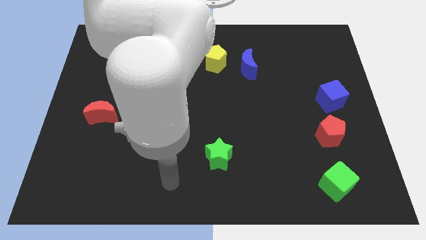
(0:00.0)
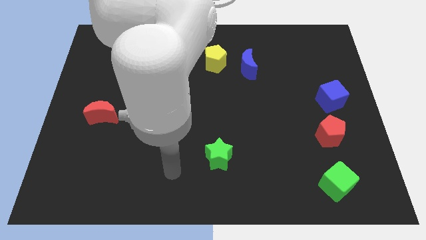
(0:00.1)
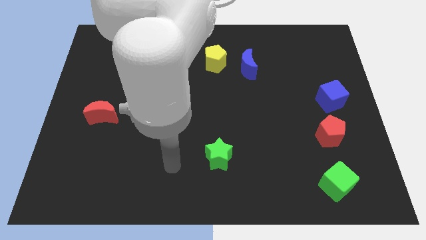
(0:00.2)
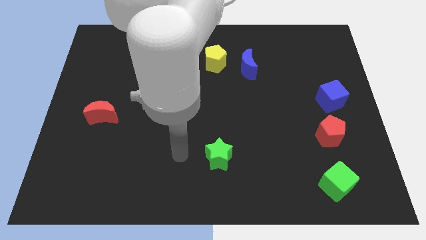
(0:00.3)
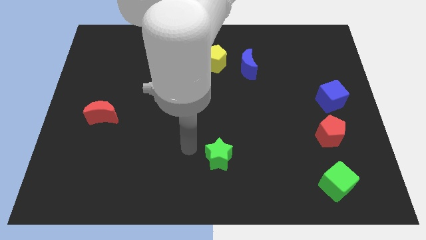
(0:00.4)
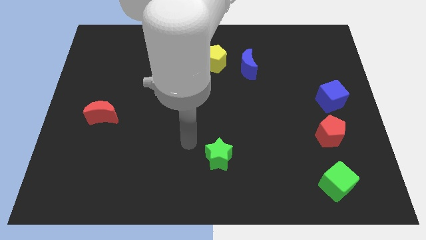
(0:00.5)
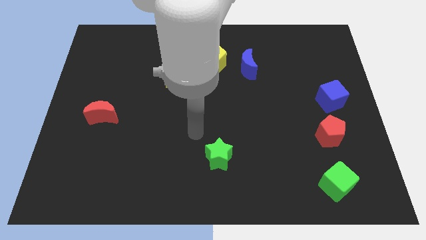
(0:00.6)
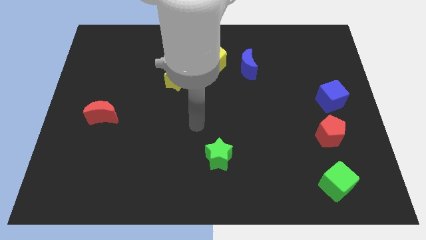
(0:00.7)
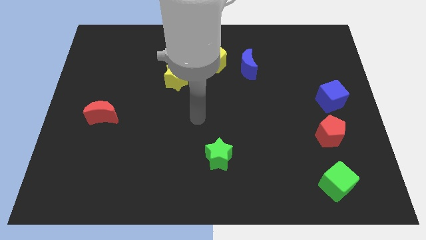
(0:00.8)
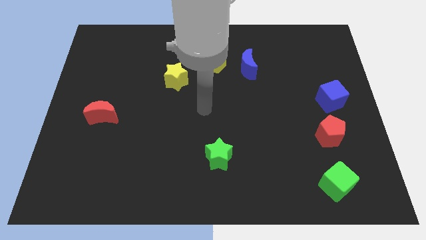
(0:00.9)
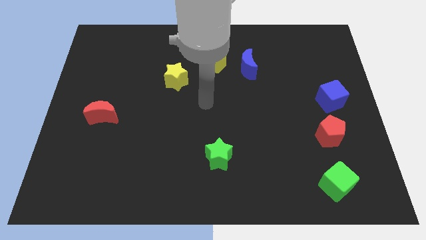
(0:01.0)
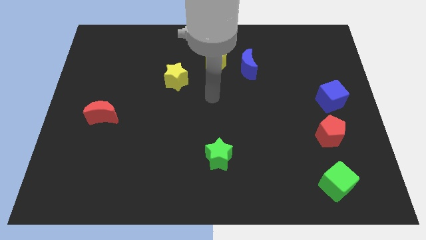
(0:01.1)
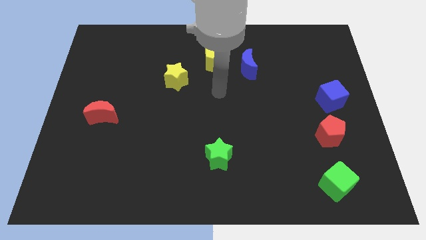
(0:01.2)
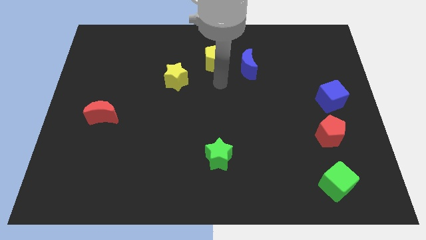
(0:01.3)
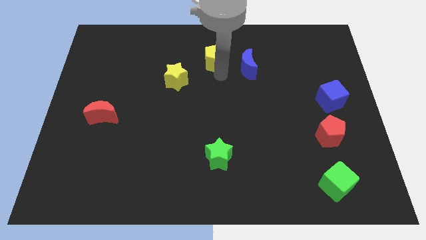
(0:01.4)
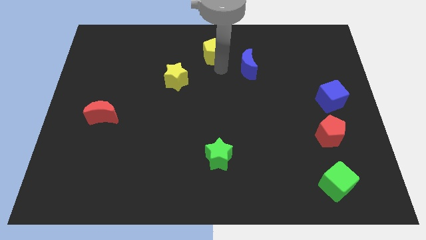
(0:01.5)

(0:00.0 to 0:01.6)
pull the blue moon apart from the yellow pentagon

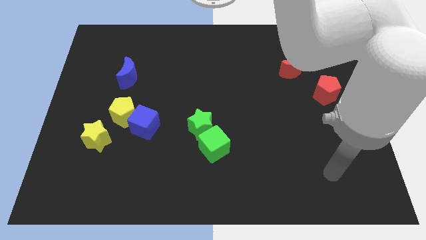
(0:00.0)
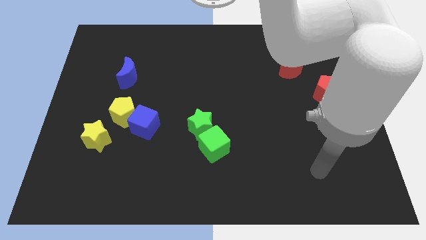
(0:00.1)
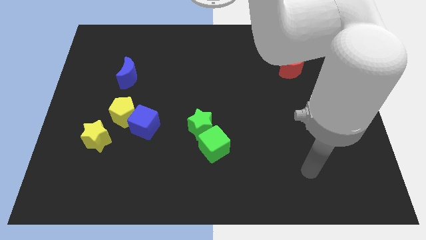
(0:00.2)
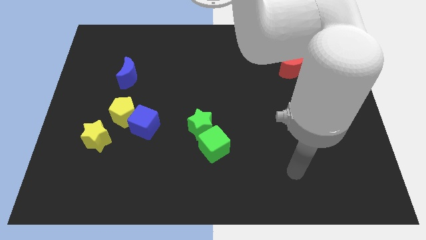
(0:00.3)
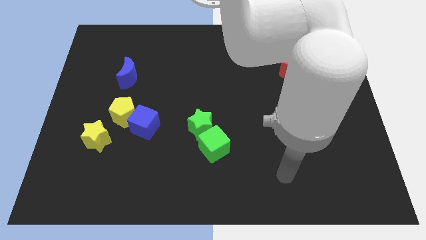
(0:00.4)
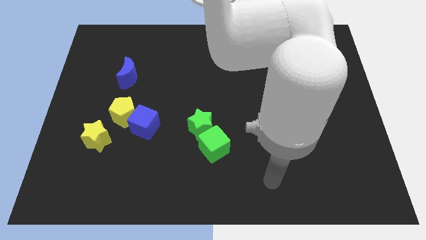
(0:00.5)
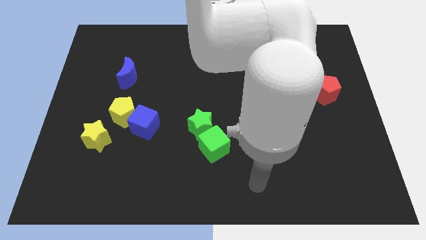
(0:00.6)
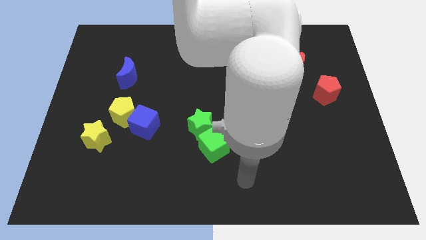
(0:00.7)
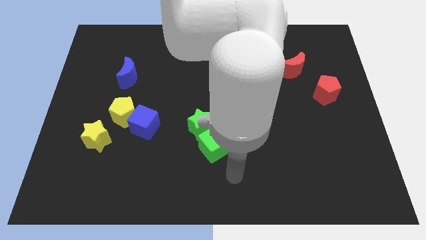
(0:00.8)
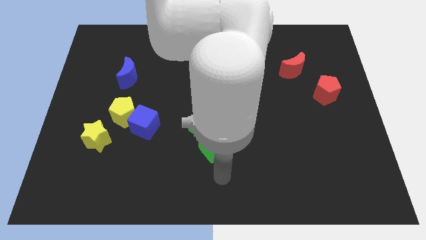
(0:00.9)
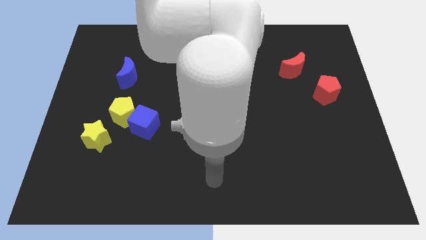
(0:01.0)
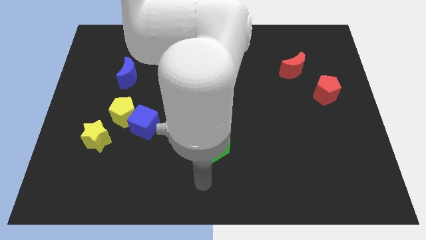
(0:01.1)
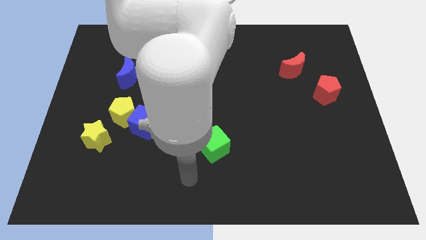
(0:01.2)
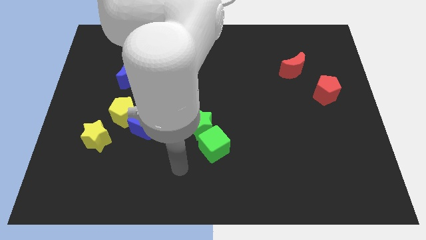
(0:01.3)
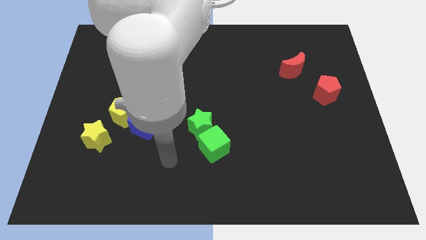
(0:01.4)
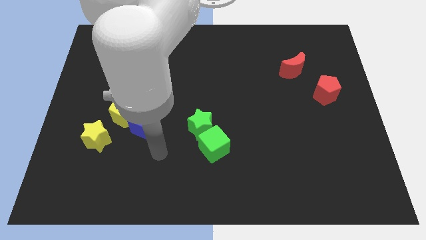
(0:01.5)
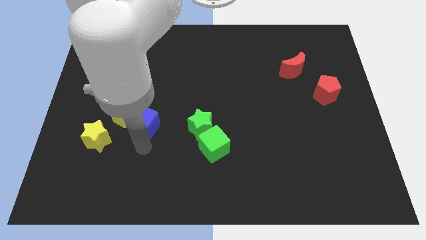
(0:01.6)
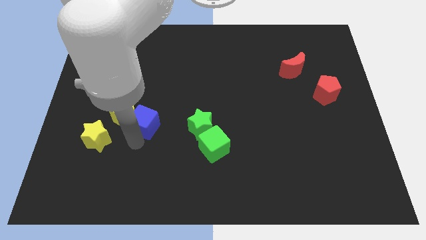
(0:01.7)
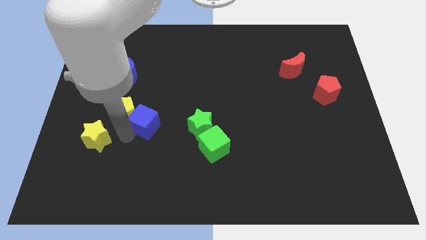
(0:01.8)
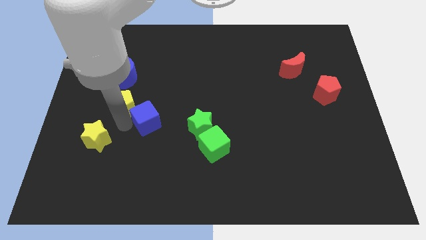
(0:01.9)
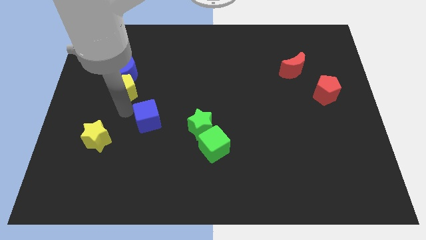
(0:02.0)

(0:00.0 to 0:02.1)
separate the blue cube from the yellow pentagon

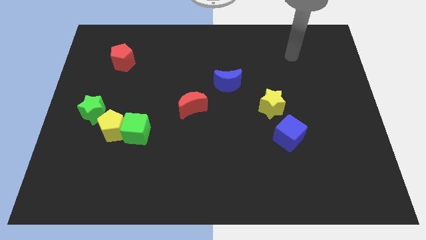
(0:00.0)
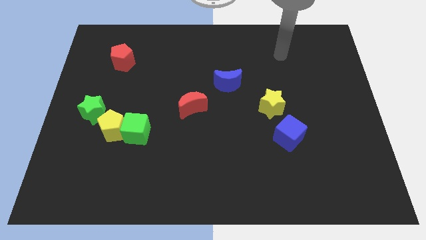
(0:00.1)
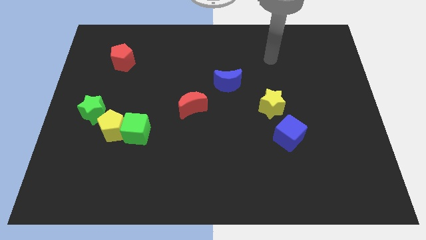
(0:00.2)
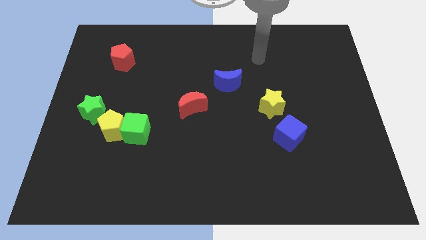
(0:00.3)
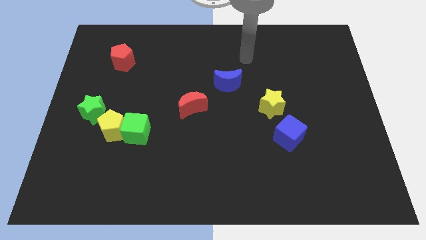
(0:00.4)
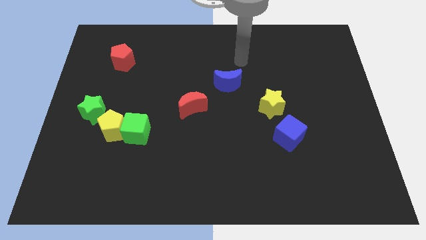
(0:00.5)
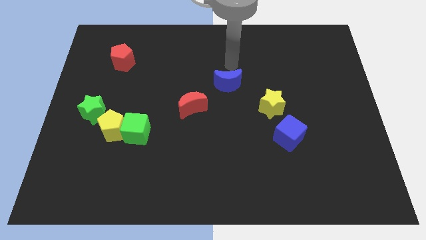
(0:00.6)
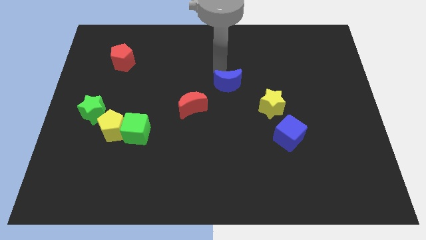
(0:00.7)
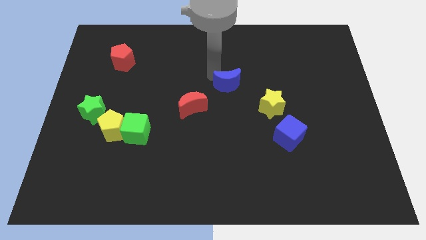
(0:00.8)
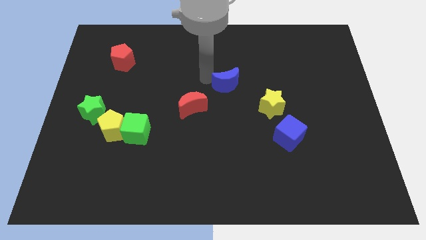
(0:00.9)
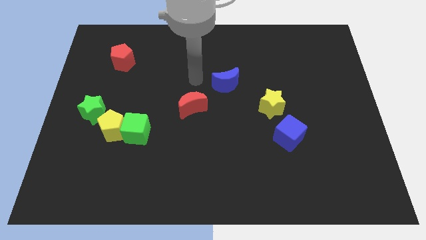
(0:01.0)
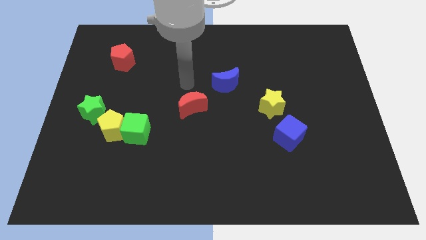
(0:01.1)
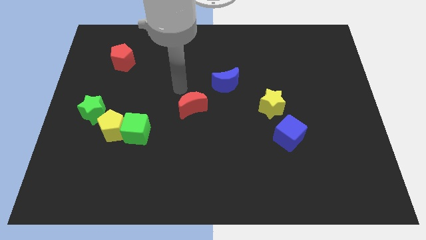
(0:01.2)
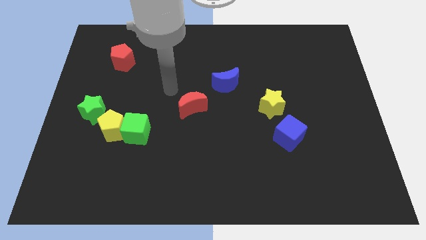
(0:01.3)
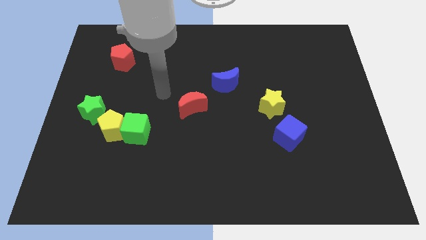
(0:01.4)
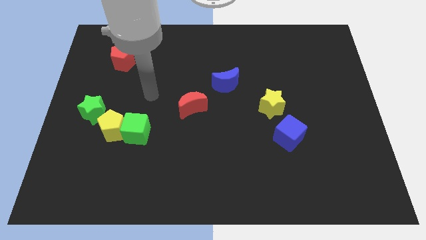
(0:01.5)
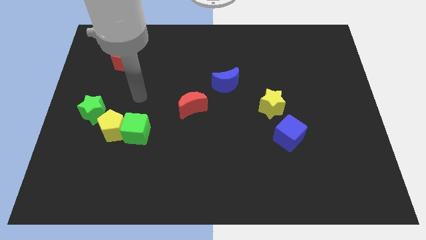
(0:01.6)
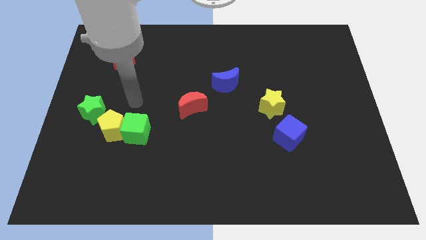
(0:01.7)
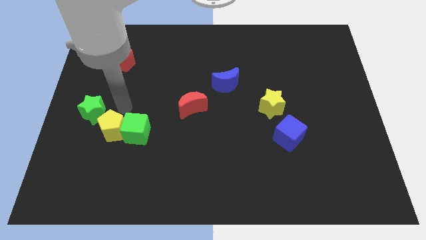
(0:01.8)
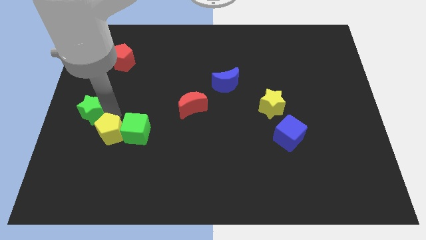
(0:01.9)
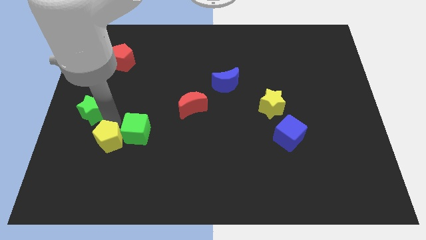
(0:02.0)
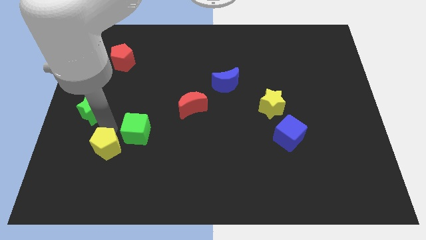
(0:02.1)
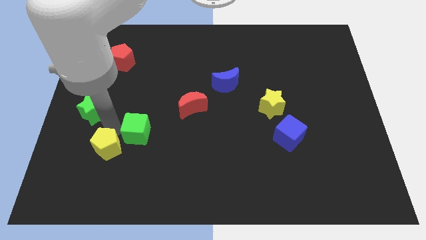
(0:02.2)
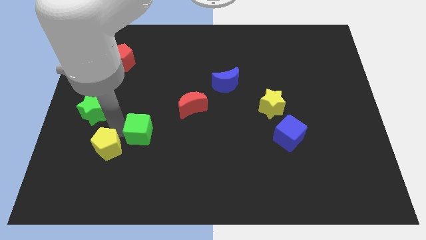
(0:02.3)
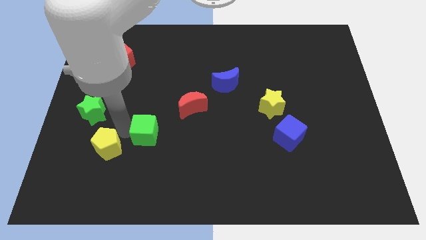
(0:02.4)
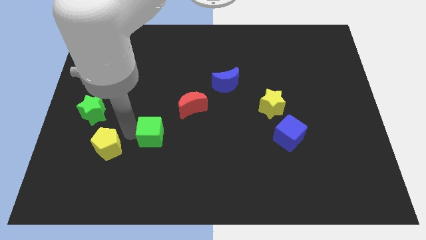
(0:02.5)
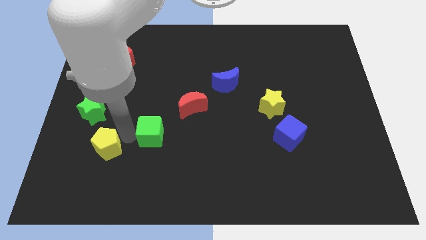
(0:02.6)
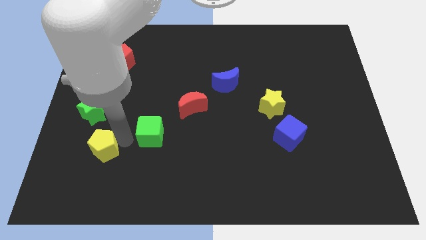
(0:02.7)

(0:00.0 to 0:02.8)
move the green cube away from the yellow pentagon

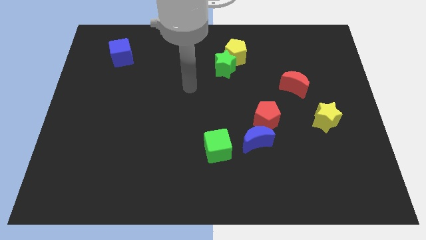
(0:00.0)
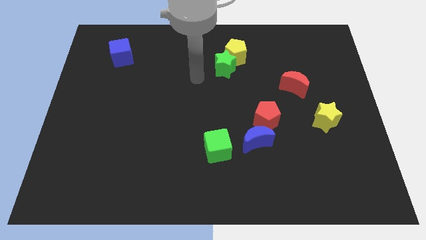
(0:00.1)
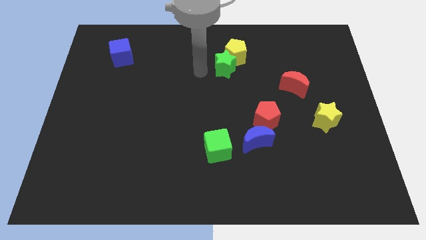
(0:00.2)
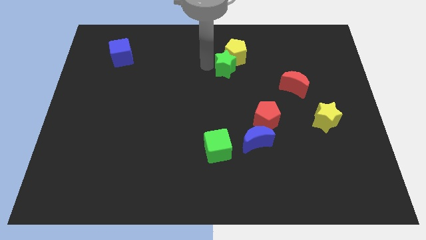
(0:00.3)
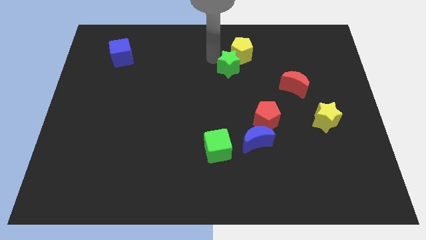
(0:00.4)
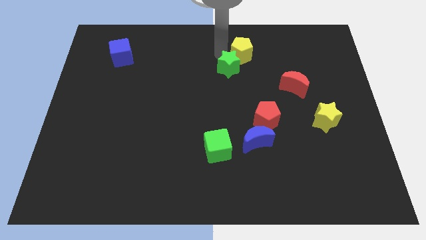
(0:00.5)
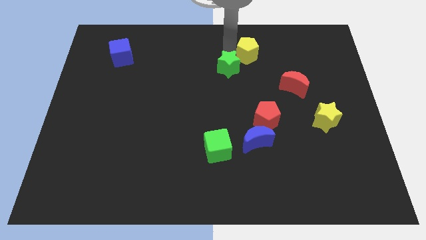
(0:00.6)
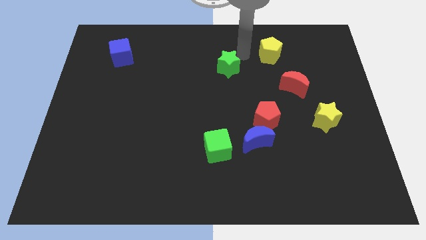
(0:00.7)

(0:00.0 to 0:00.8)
pull the green star apart from the yellow pentagon

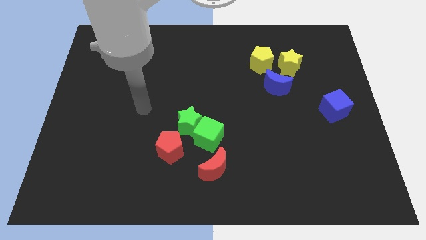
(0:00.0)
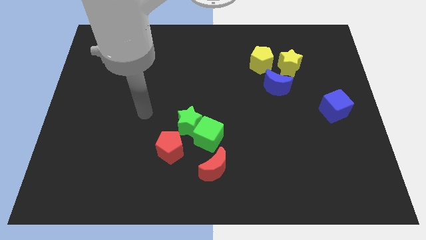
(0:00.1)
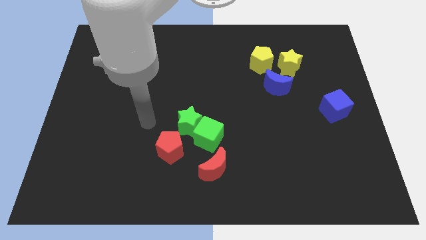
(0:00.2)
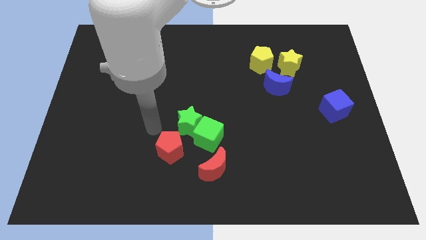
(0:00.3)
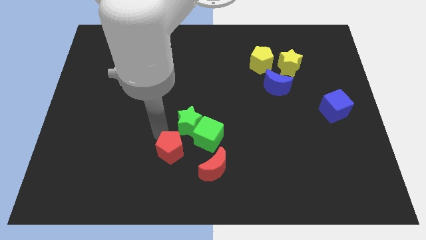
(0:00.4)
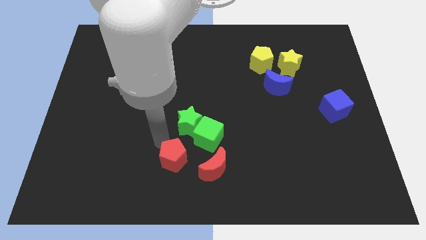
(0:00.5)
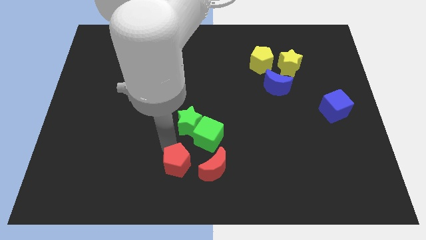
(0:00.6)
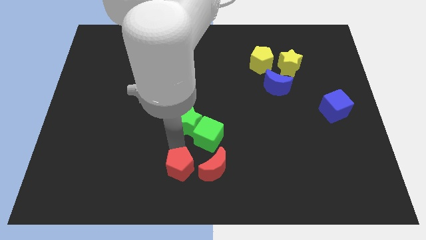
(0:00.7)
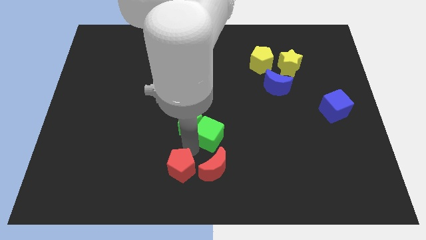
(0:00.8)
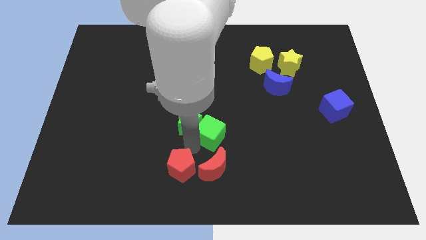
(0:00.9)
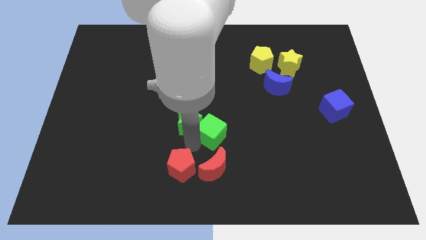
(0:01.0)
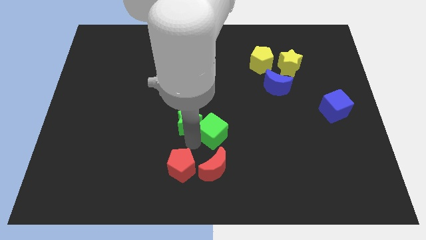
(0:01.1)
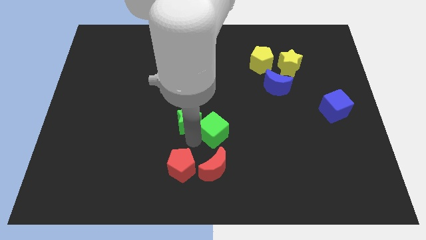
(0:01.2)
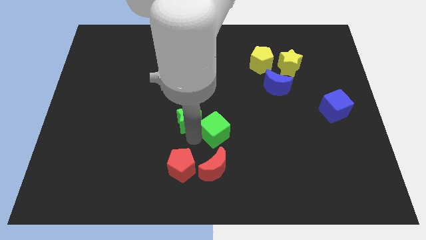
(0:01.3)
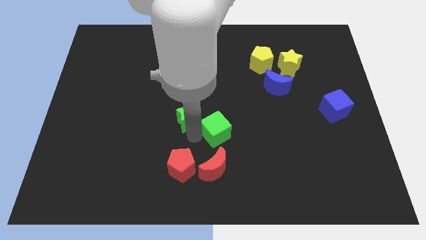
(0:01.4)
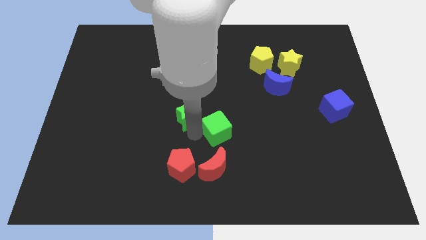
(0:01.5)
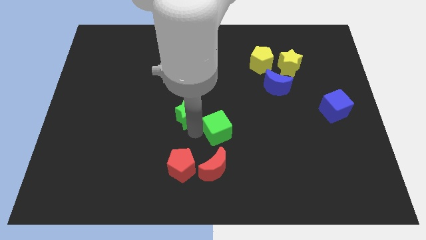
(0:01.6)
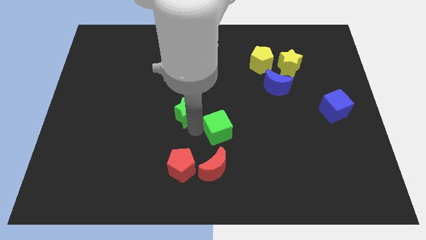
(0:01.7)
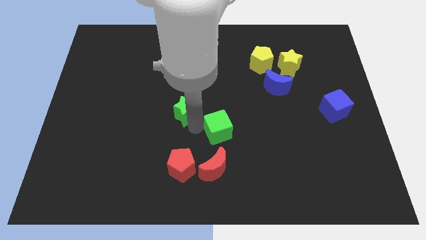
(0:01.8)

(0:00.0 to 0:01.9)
move the green star away from the green cube and red pentagon

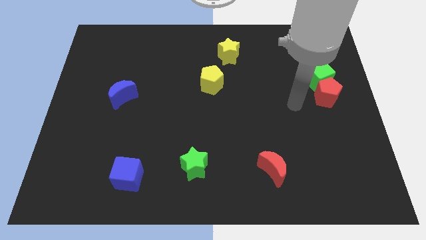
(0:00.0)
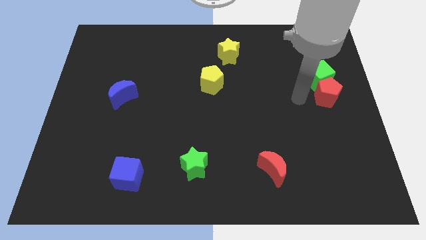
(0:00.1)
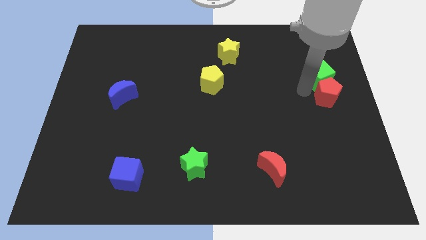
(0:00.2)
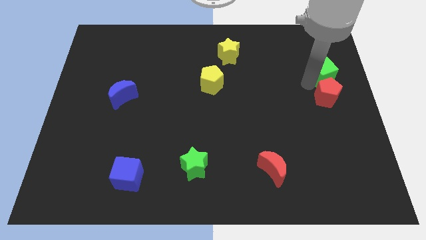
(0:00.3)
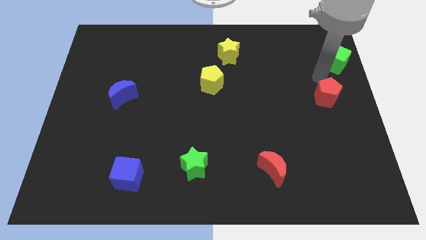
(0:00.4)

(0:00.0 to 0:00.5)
move the red pentagon away from the green cube
